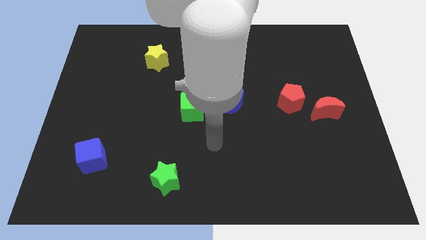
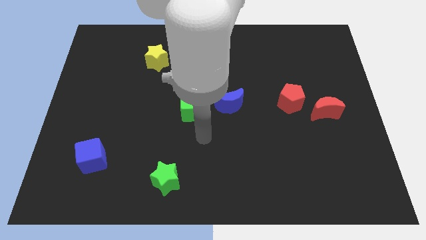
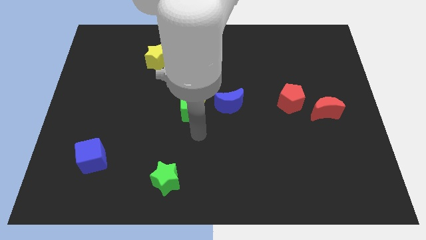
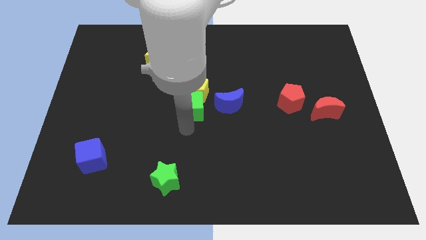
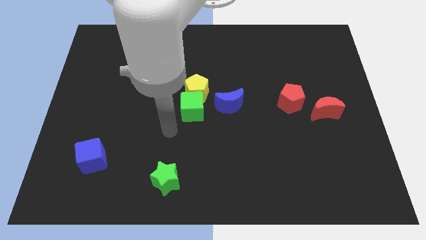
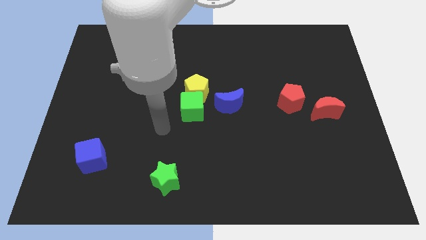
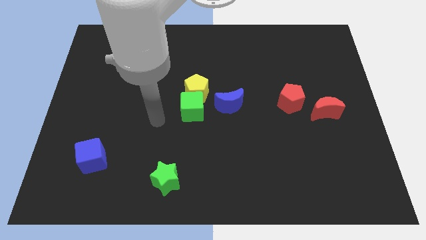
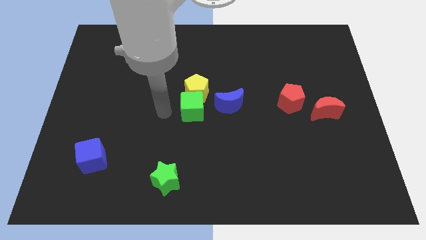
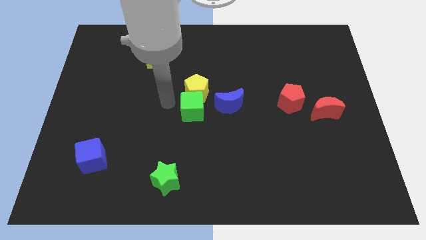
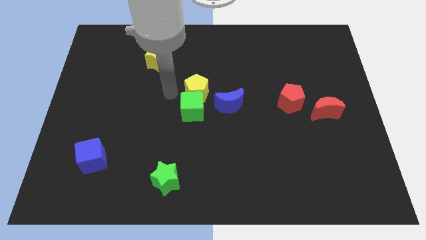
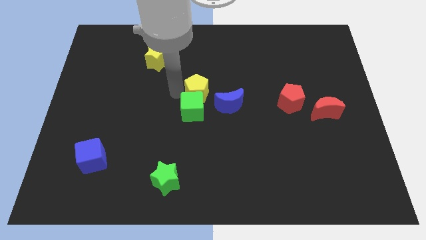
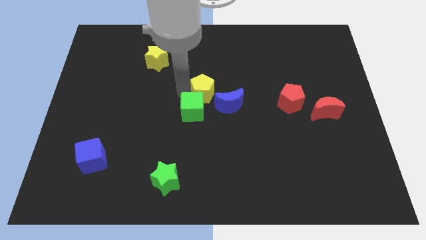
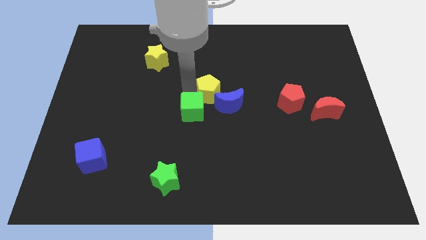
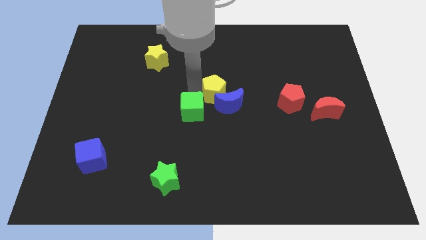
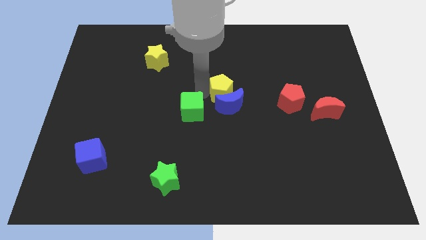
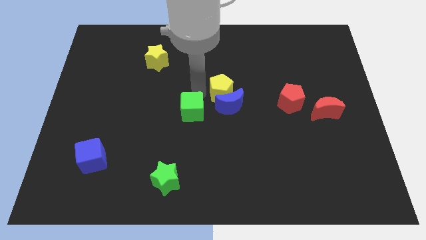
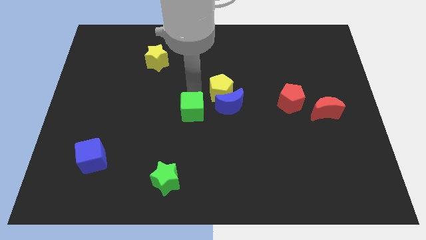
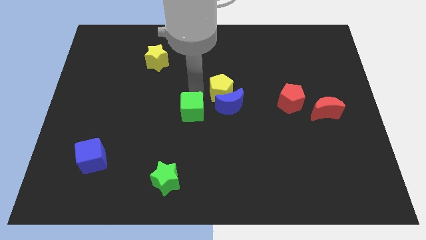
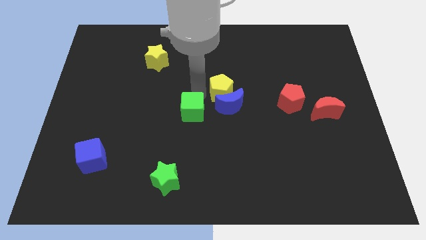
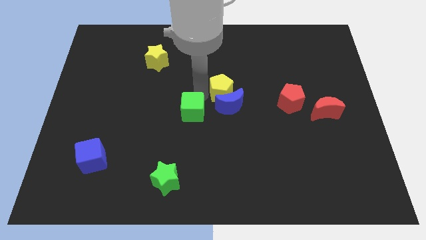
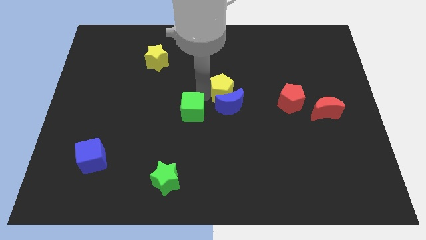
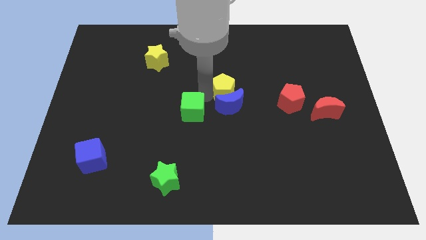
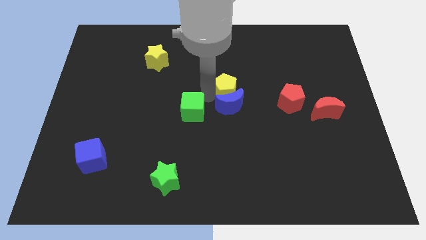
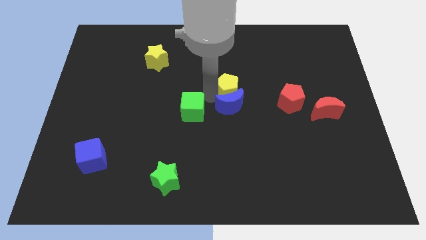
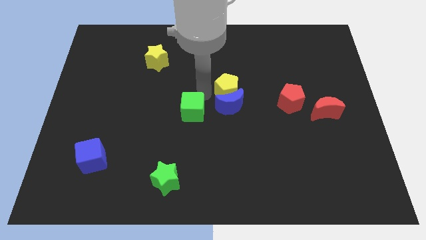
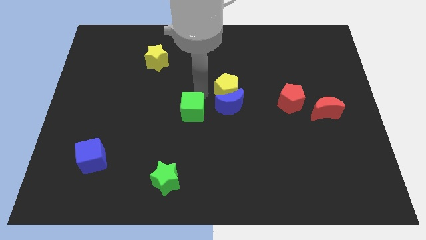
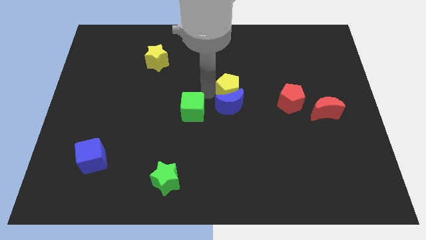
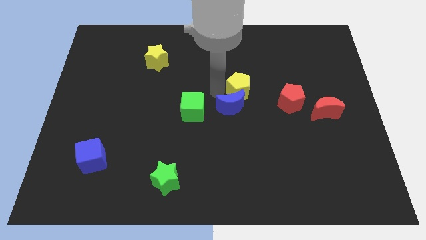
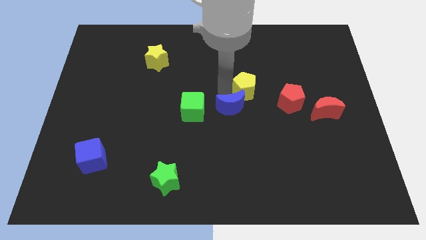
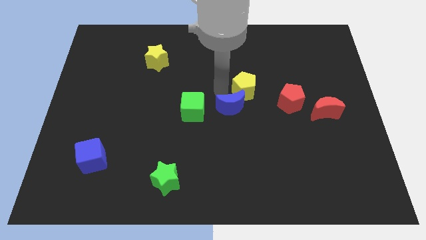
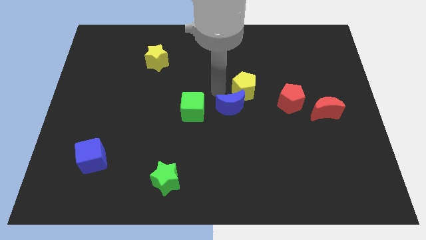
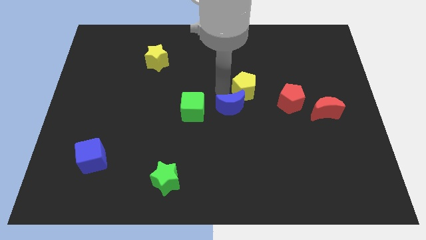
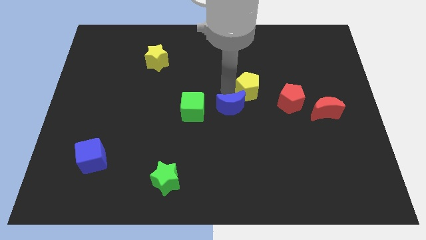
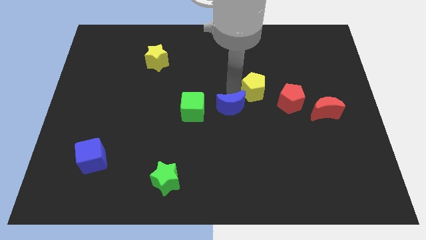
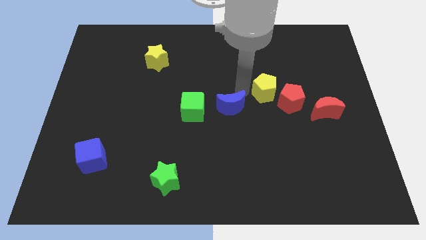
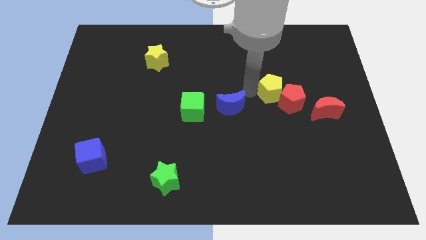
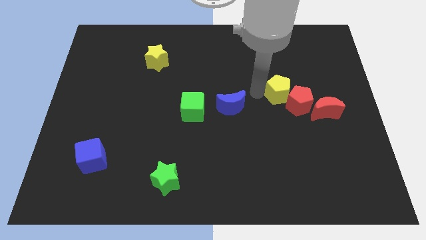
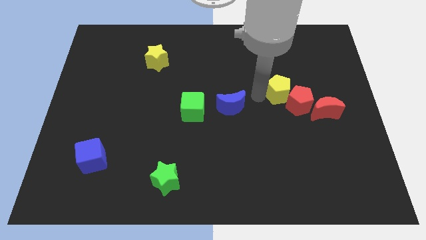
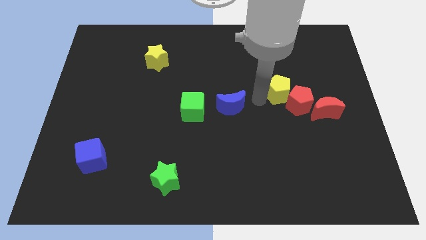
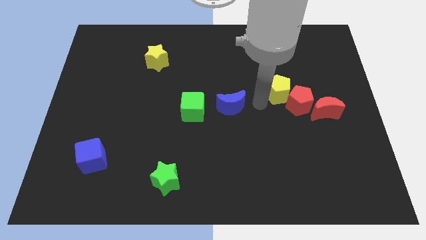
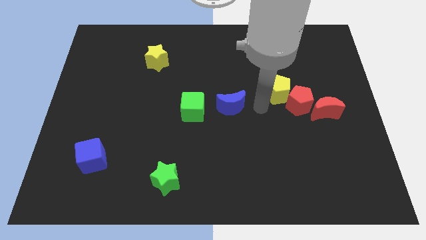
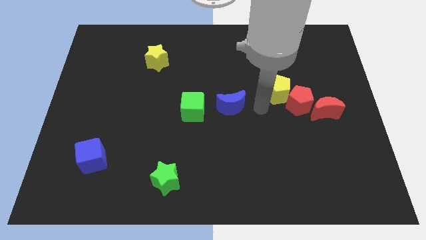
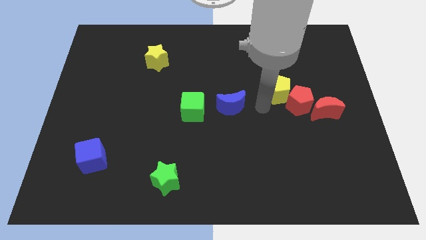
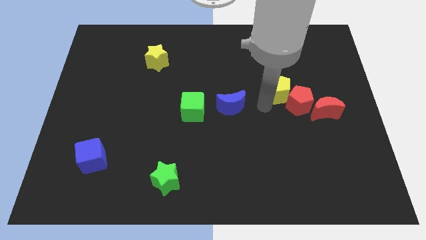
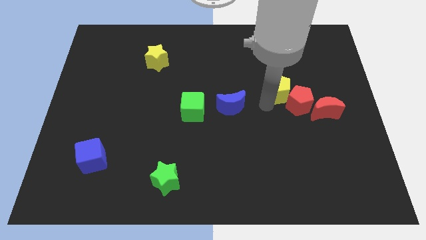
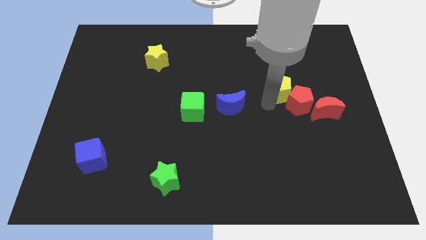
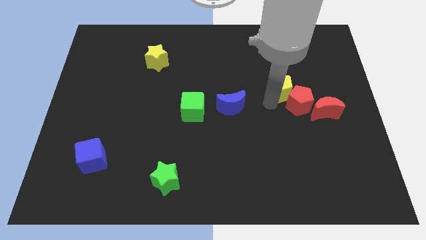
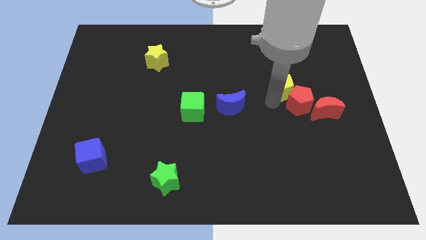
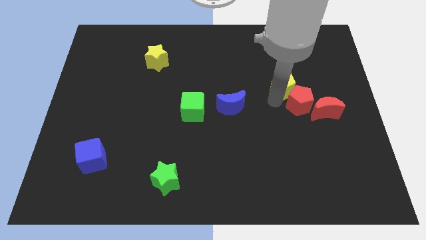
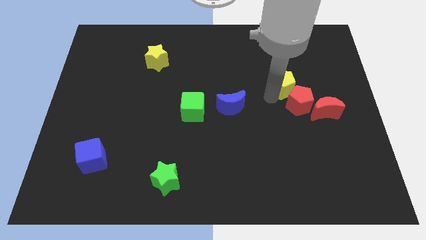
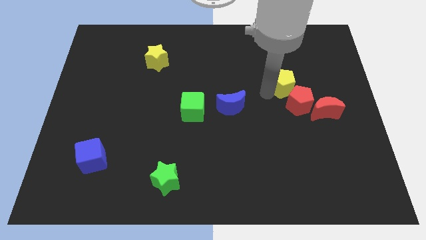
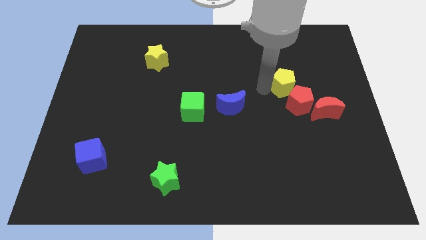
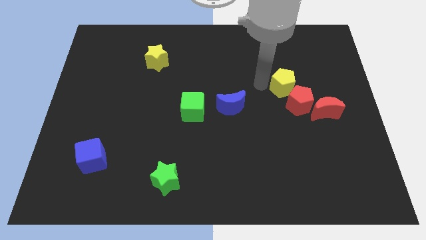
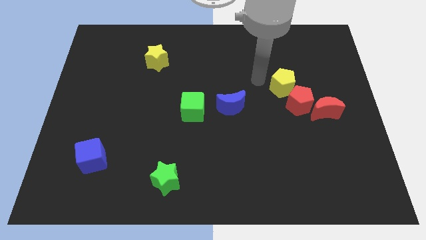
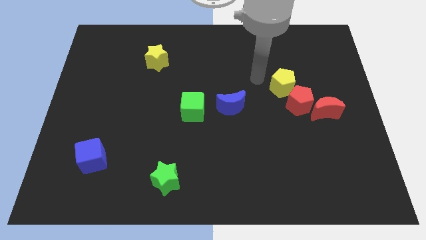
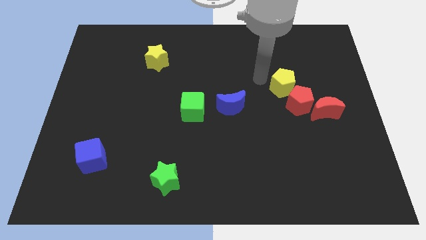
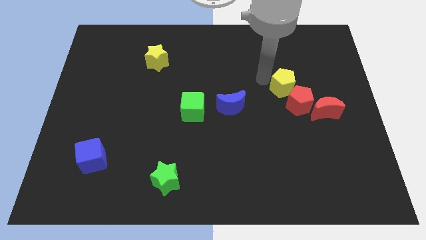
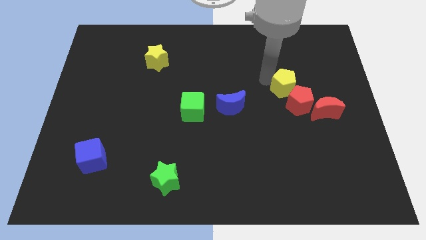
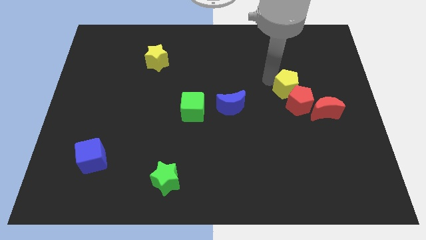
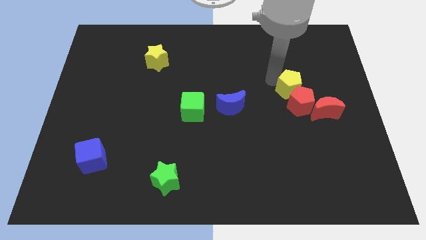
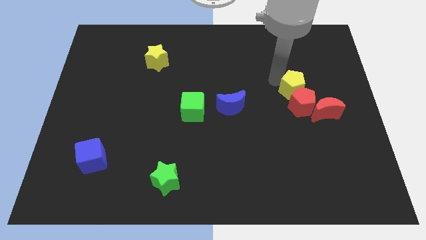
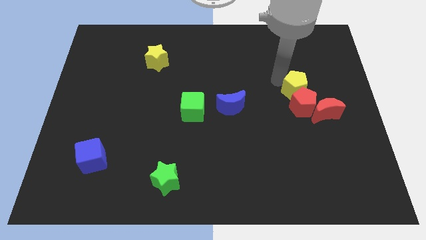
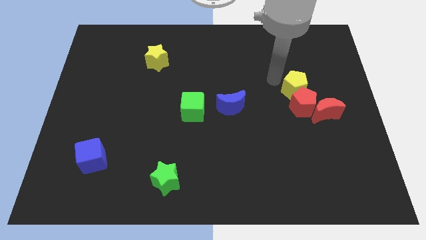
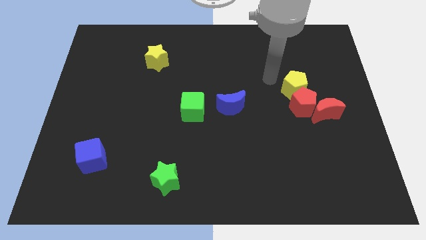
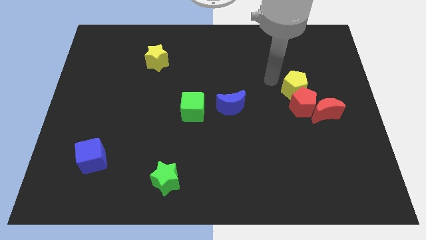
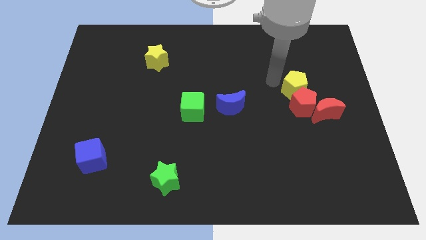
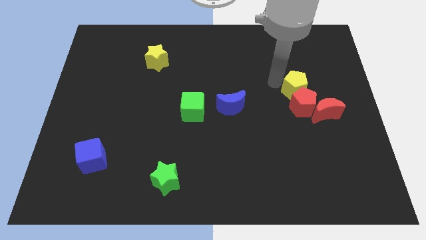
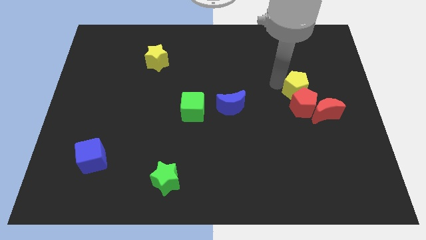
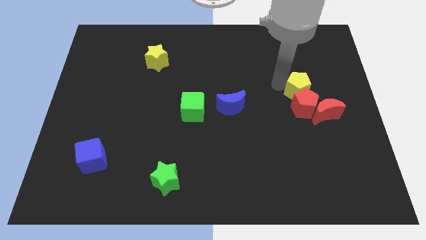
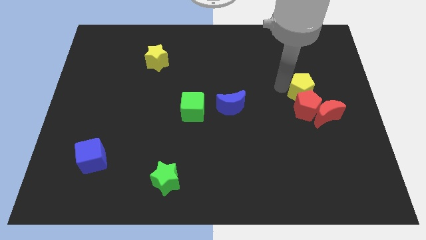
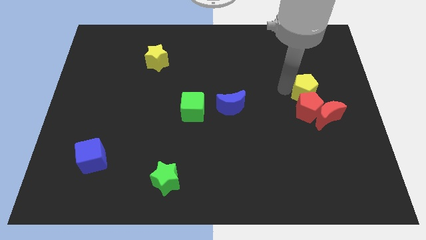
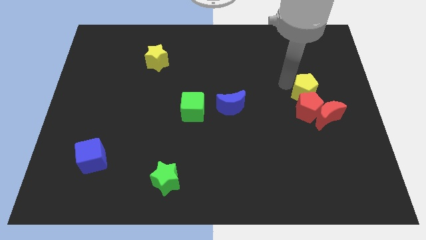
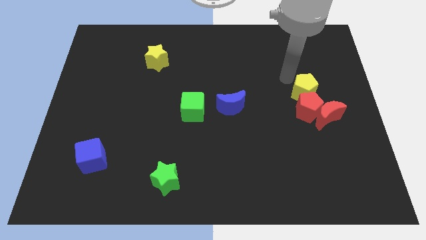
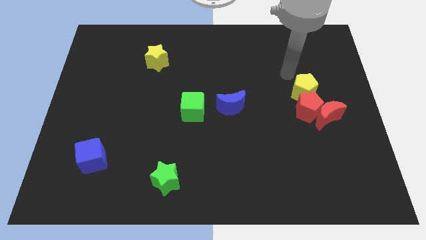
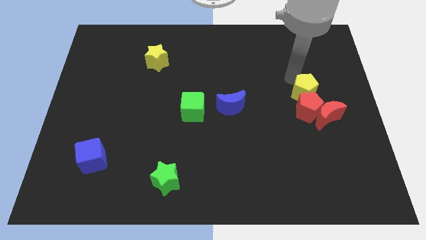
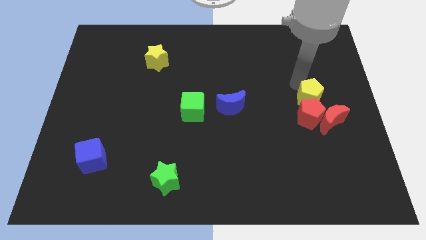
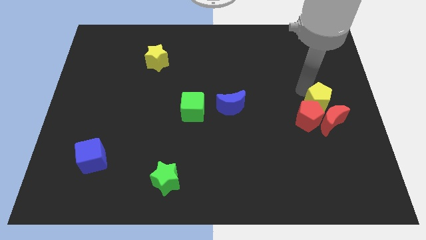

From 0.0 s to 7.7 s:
slide the yellow pentagon next to the red moon
